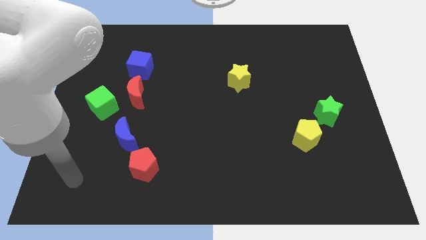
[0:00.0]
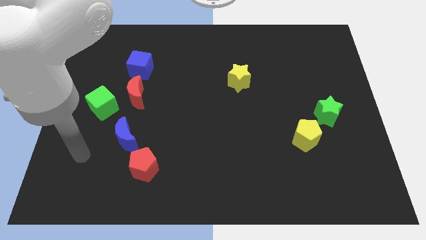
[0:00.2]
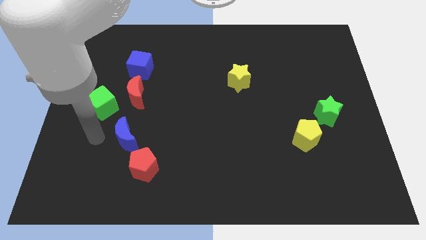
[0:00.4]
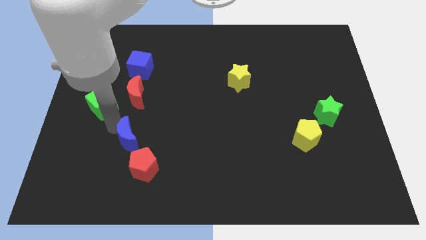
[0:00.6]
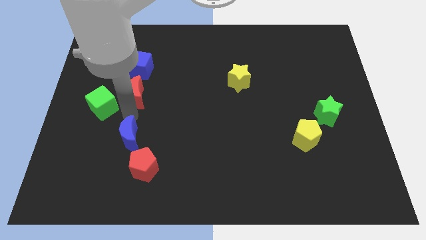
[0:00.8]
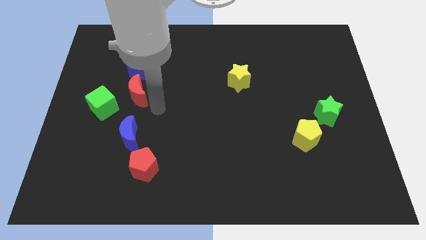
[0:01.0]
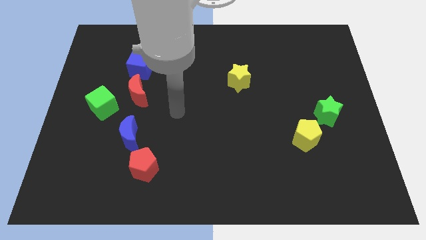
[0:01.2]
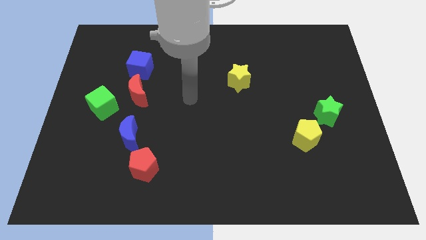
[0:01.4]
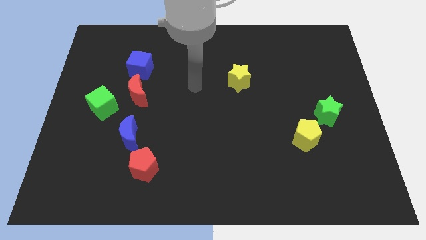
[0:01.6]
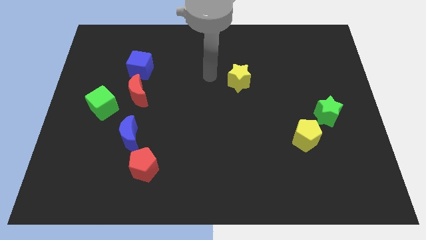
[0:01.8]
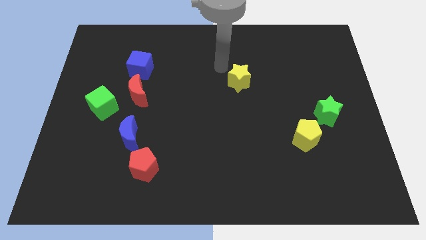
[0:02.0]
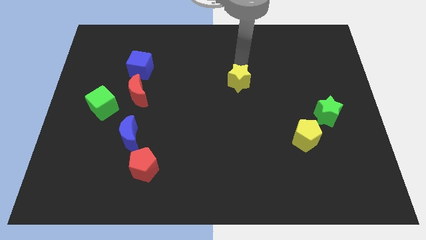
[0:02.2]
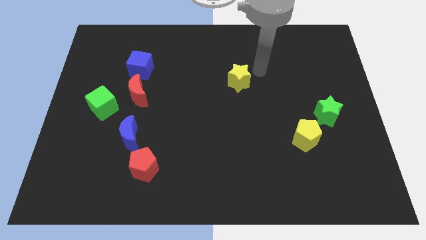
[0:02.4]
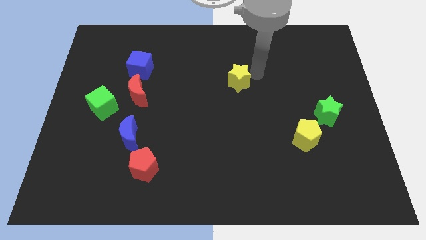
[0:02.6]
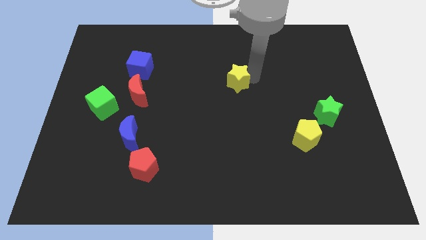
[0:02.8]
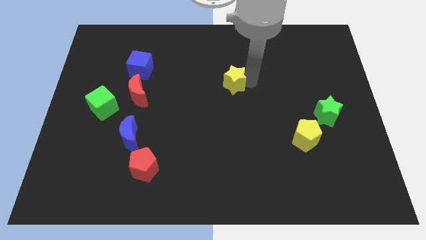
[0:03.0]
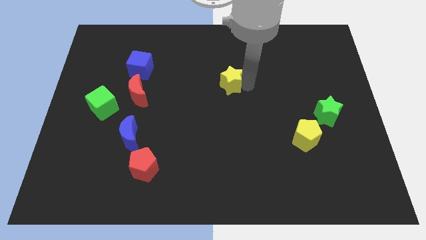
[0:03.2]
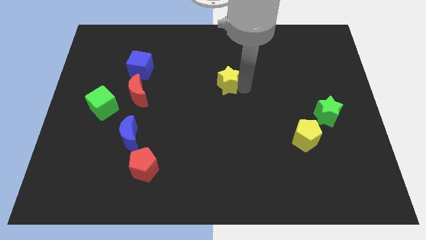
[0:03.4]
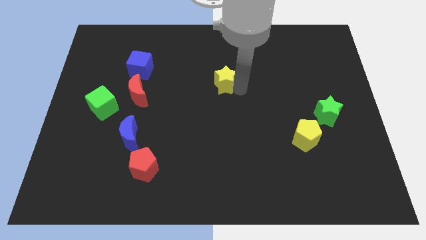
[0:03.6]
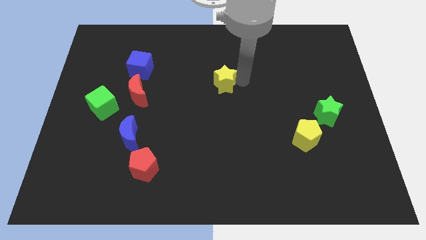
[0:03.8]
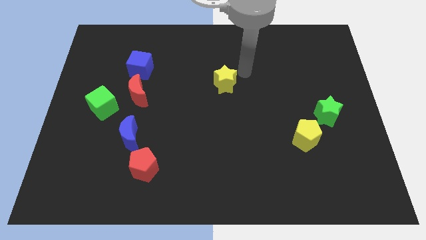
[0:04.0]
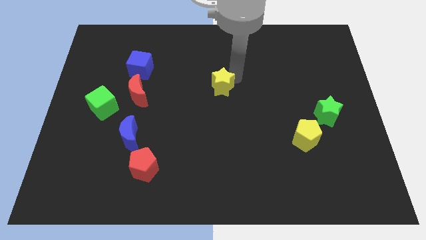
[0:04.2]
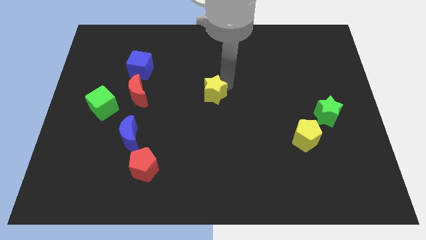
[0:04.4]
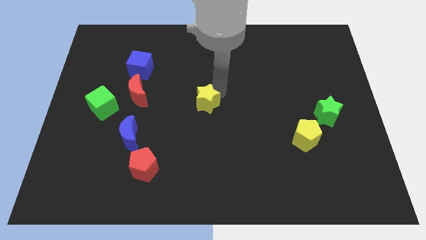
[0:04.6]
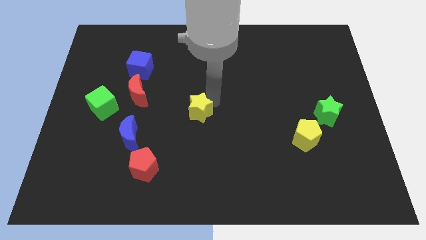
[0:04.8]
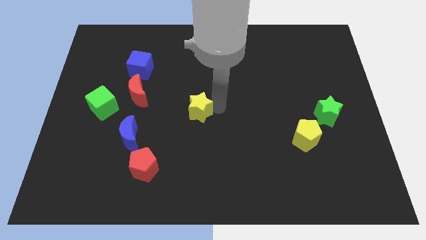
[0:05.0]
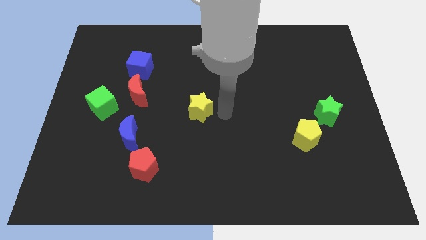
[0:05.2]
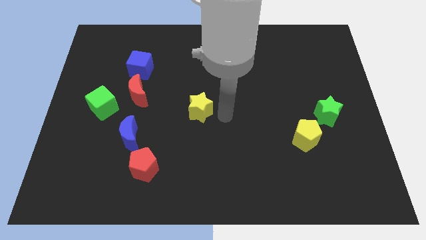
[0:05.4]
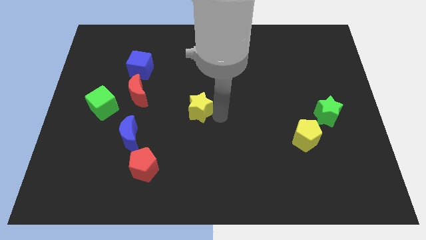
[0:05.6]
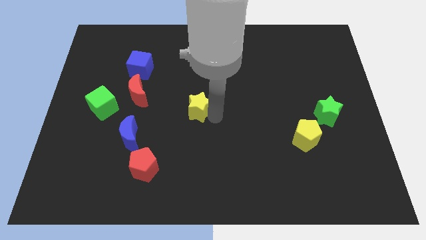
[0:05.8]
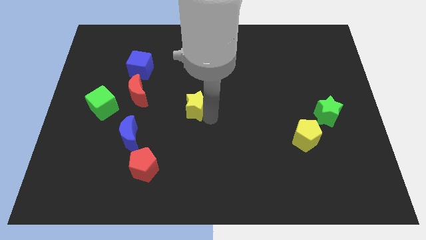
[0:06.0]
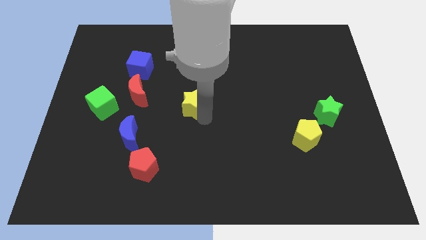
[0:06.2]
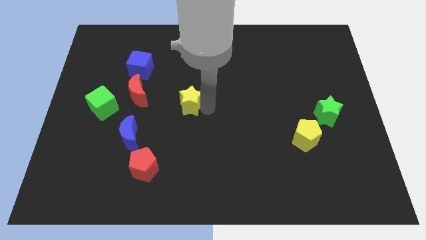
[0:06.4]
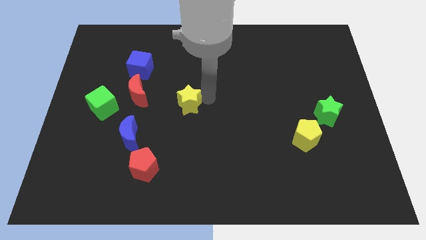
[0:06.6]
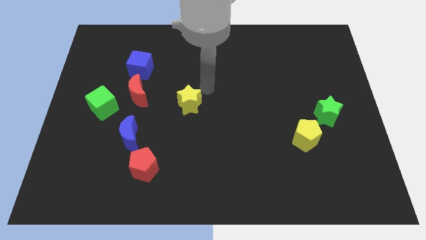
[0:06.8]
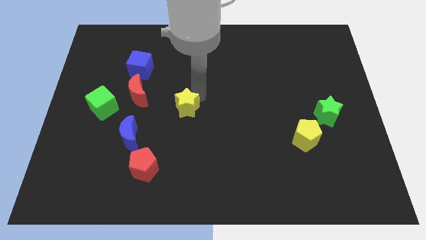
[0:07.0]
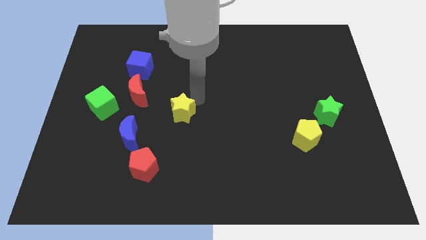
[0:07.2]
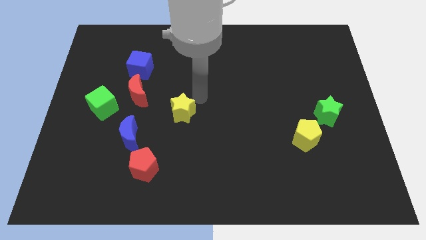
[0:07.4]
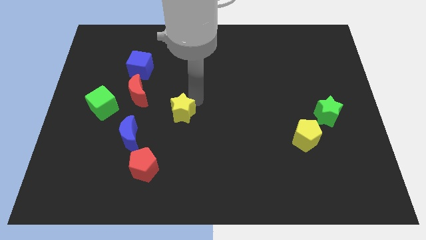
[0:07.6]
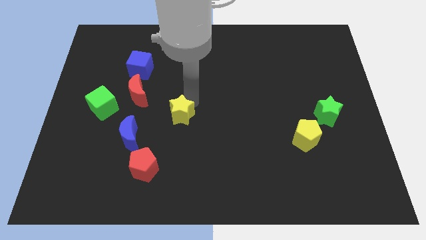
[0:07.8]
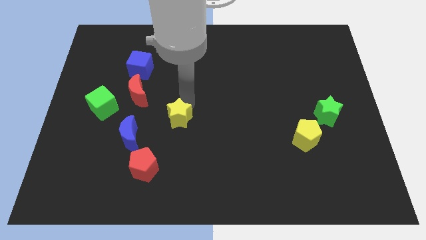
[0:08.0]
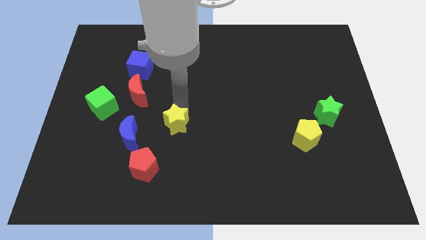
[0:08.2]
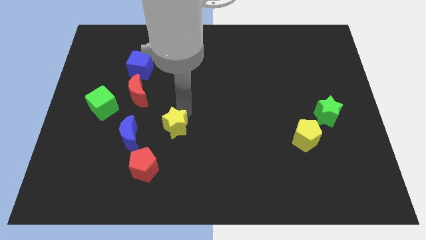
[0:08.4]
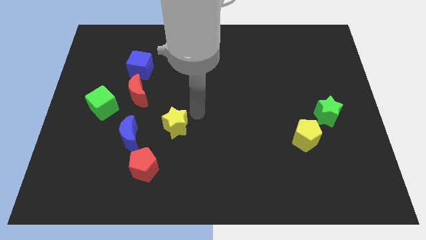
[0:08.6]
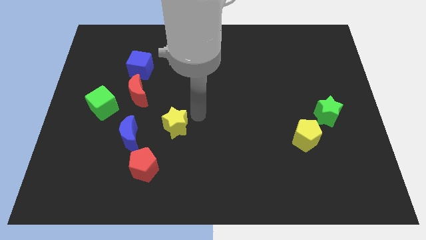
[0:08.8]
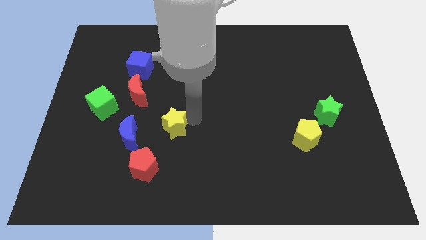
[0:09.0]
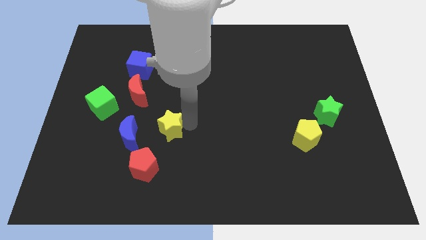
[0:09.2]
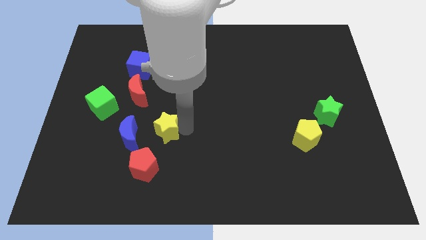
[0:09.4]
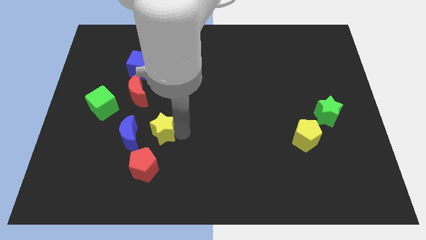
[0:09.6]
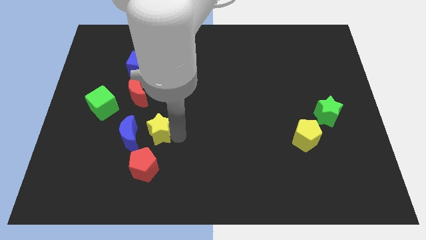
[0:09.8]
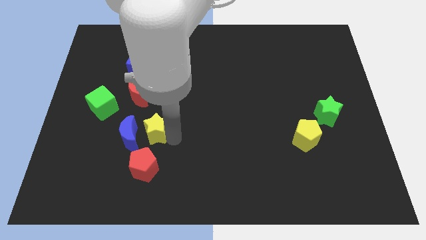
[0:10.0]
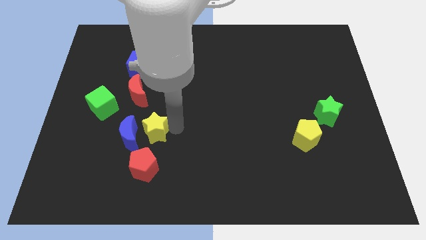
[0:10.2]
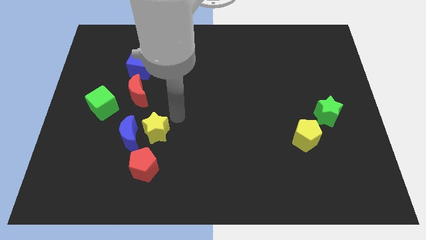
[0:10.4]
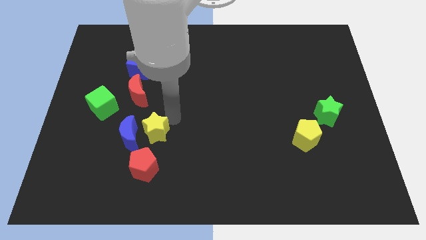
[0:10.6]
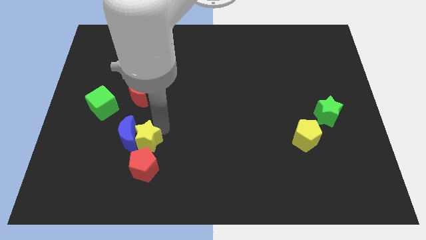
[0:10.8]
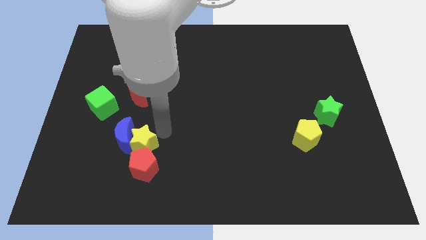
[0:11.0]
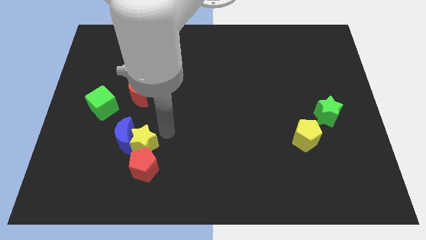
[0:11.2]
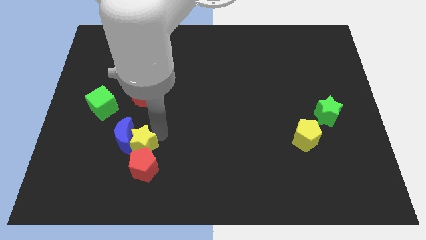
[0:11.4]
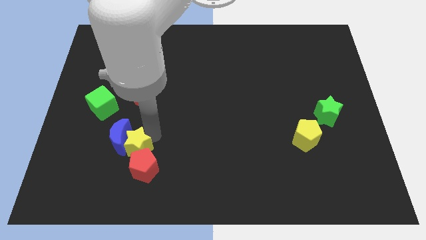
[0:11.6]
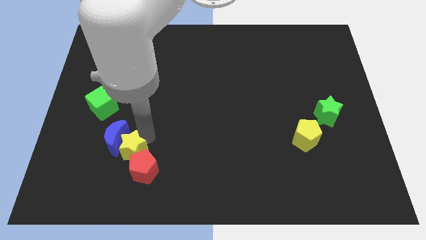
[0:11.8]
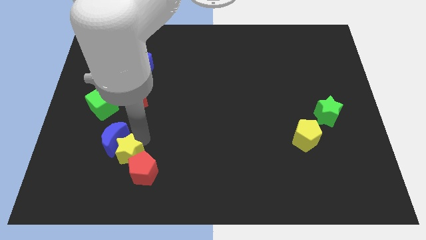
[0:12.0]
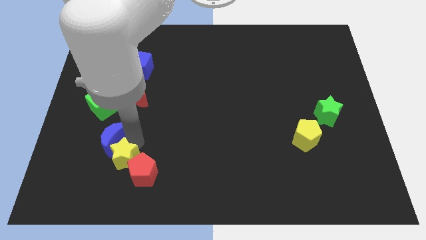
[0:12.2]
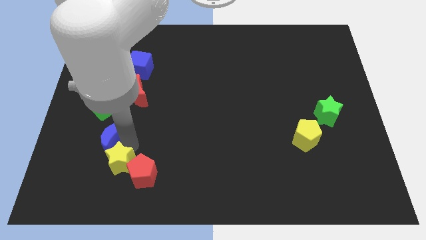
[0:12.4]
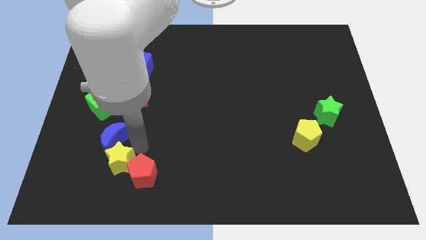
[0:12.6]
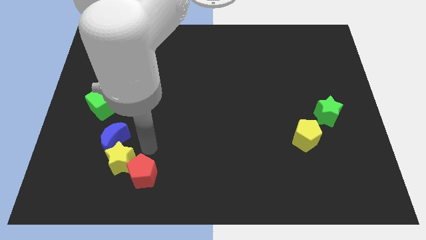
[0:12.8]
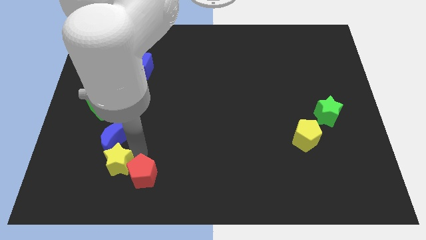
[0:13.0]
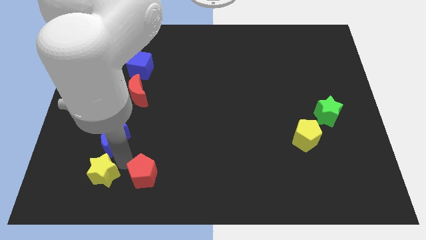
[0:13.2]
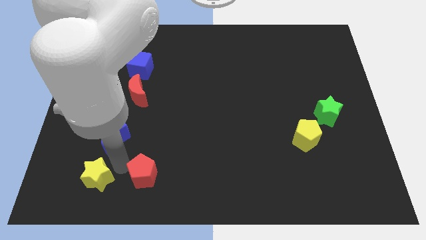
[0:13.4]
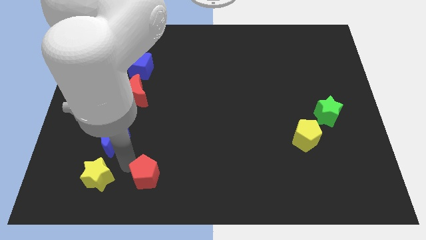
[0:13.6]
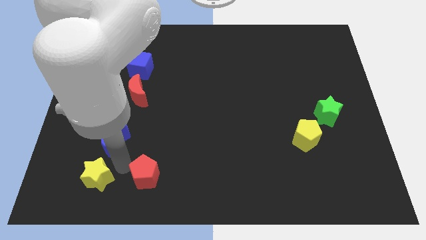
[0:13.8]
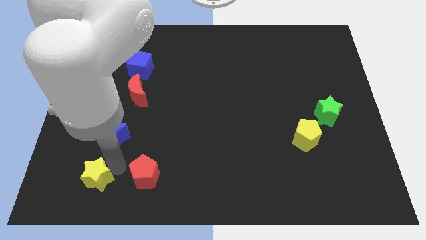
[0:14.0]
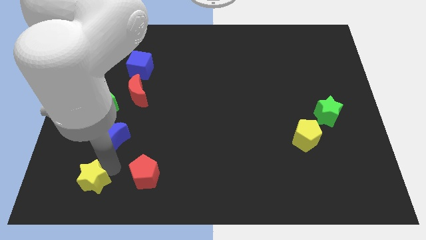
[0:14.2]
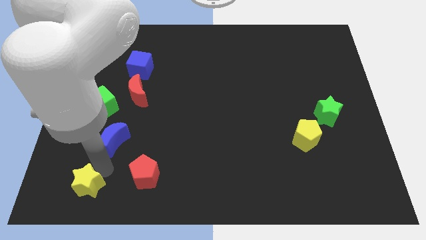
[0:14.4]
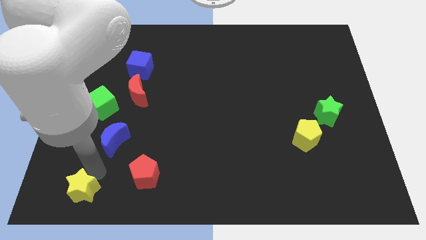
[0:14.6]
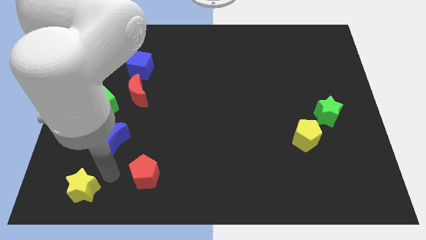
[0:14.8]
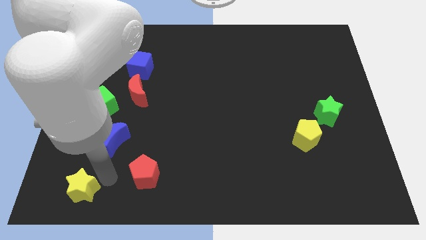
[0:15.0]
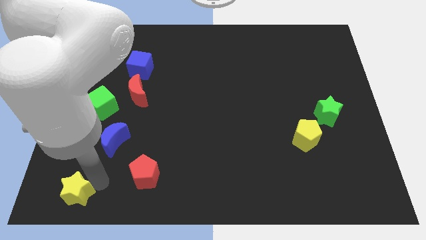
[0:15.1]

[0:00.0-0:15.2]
push the yellow star to the bottom left
